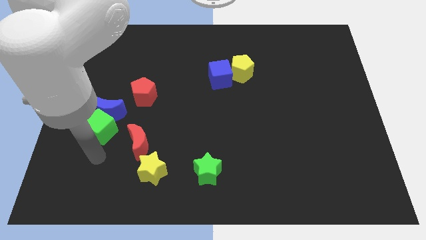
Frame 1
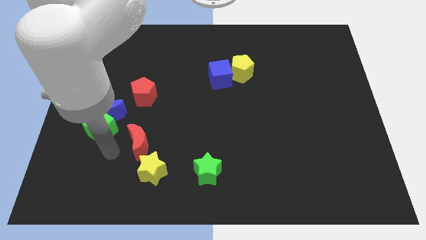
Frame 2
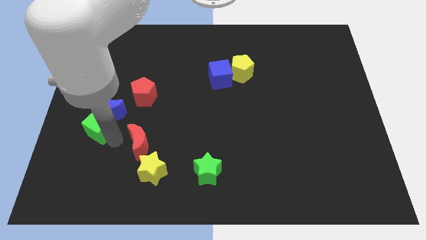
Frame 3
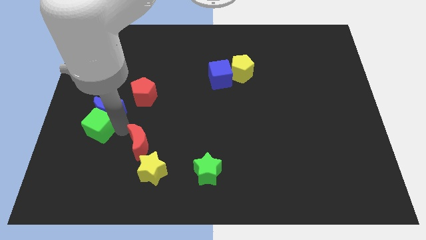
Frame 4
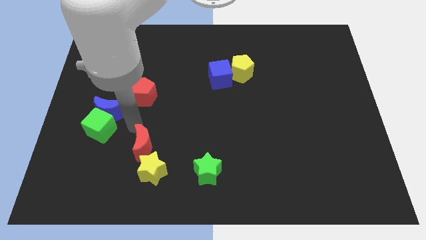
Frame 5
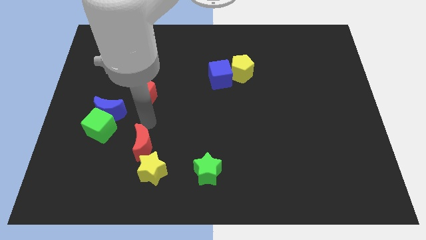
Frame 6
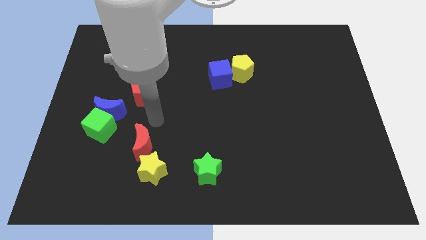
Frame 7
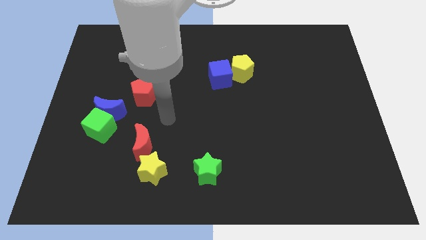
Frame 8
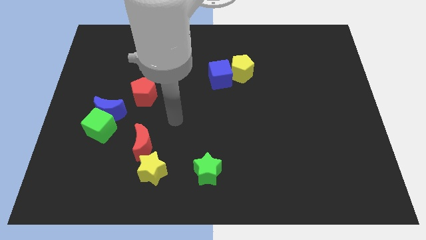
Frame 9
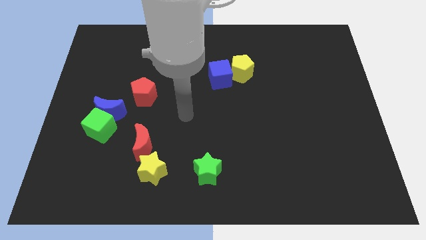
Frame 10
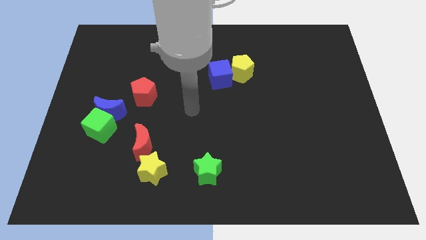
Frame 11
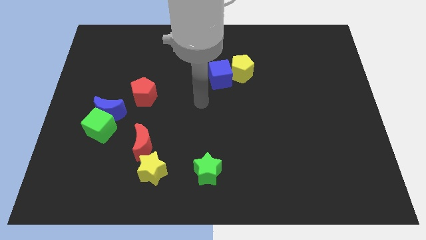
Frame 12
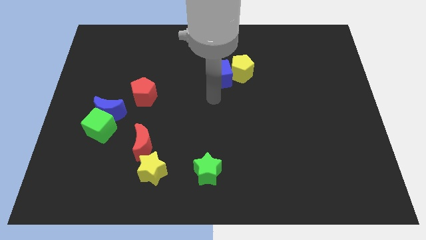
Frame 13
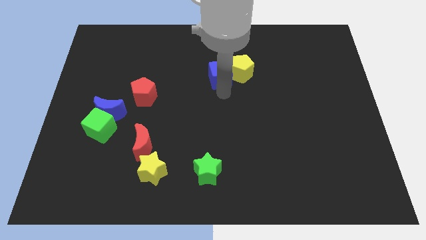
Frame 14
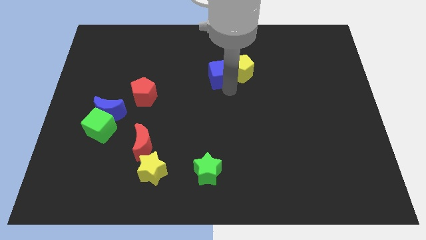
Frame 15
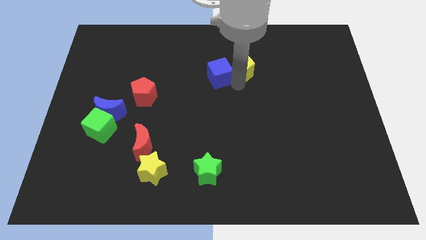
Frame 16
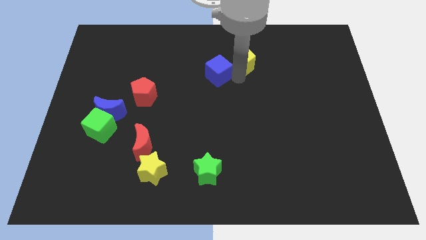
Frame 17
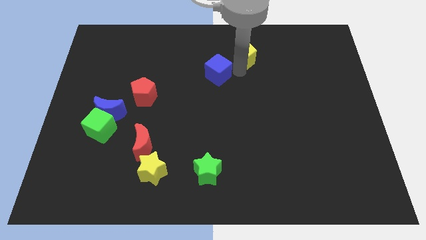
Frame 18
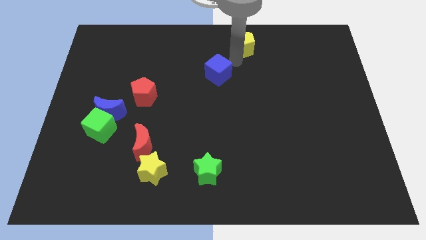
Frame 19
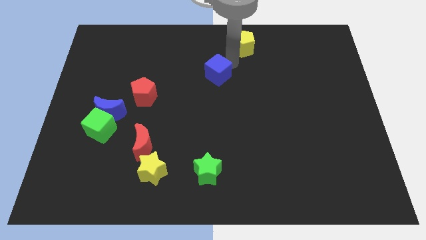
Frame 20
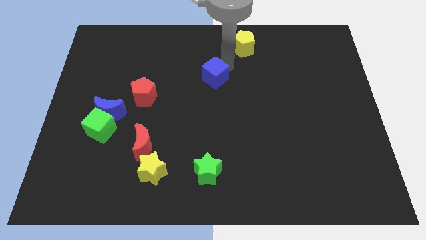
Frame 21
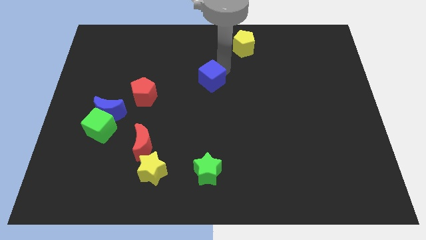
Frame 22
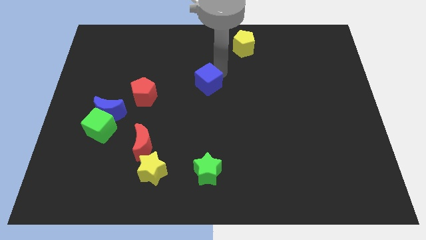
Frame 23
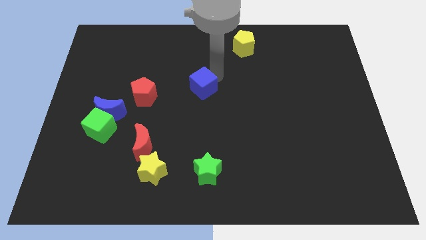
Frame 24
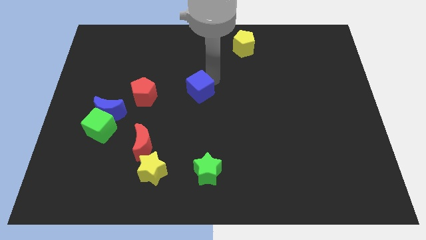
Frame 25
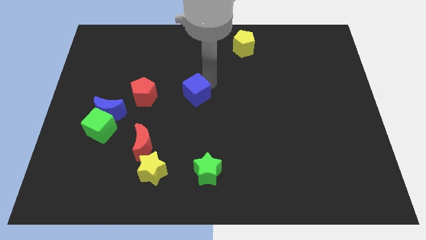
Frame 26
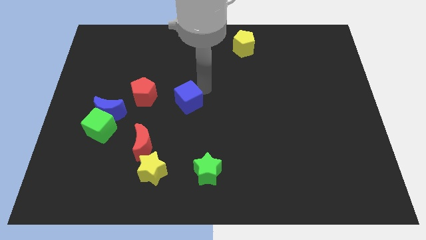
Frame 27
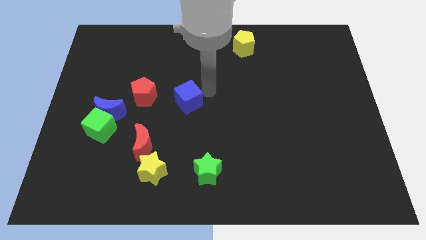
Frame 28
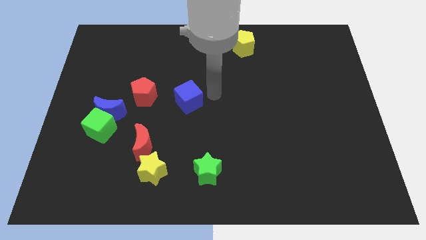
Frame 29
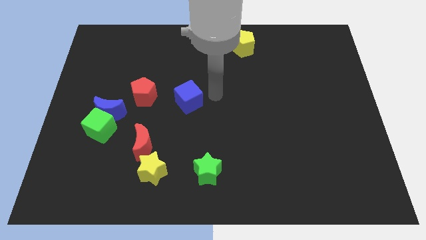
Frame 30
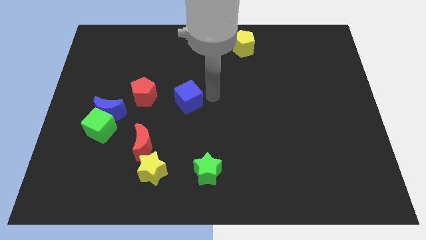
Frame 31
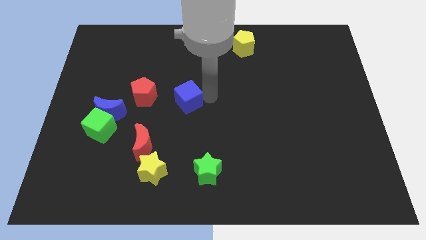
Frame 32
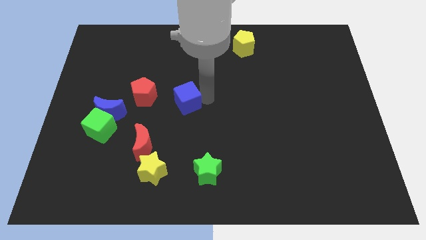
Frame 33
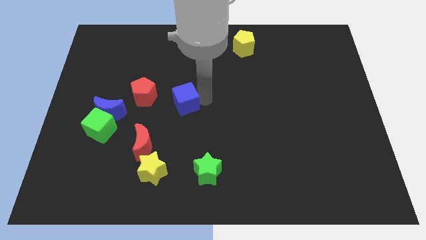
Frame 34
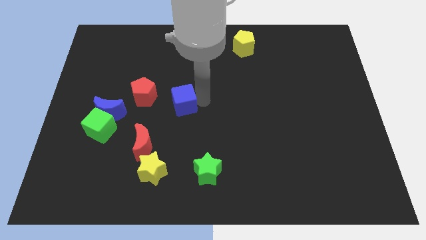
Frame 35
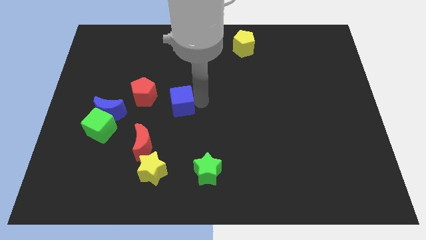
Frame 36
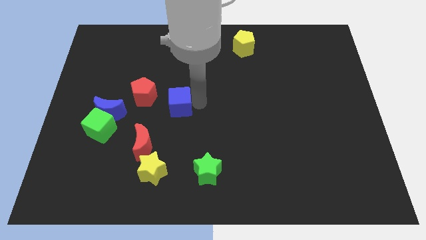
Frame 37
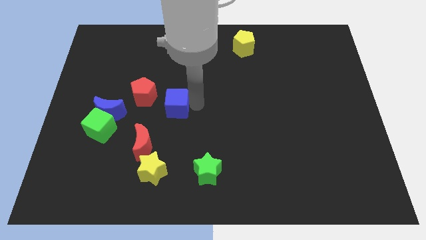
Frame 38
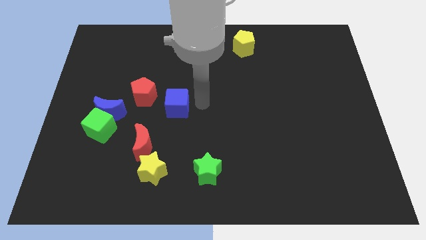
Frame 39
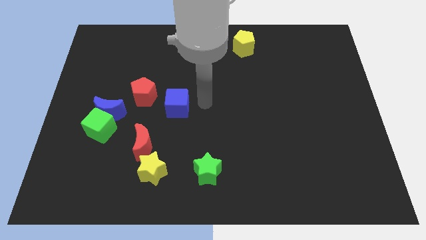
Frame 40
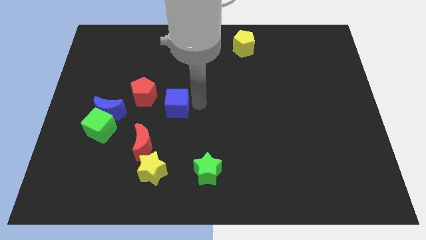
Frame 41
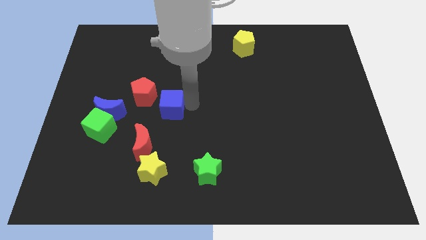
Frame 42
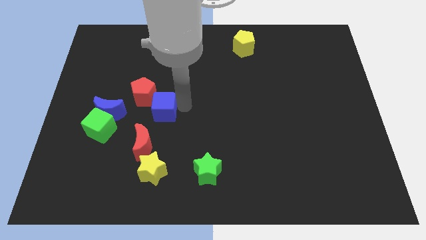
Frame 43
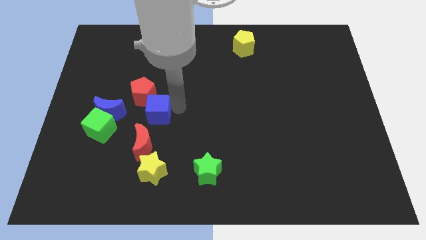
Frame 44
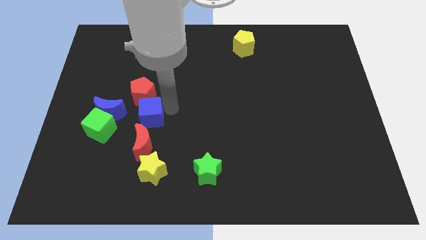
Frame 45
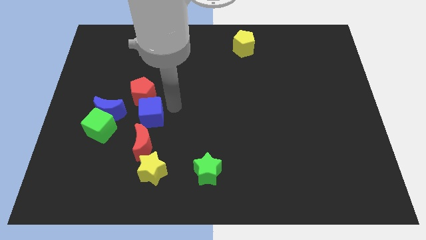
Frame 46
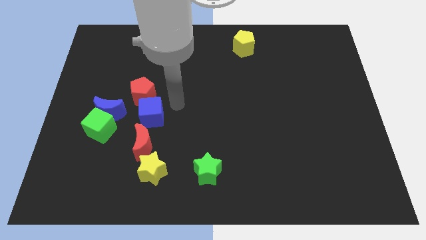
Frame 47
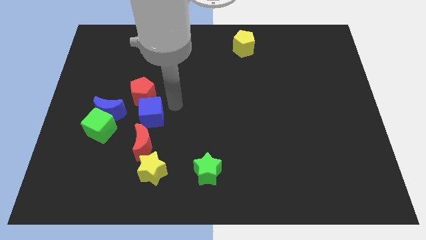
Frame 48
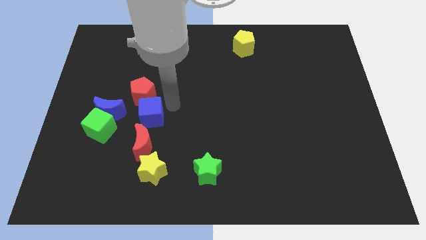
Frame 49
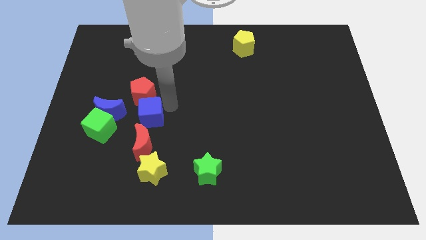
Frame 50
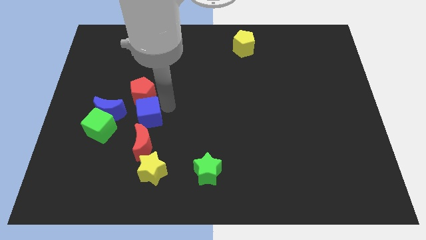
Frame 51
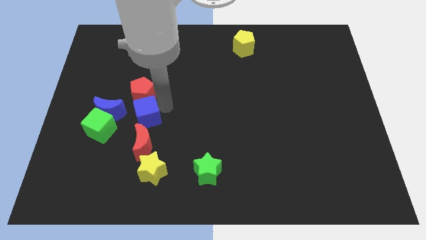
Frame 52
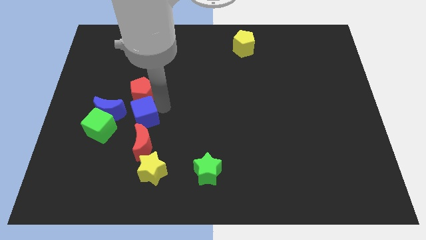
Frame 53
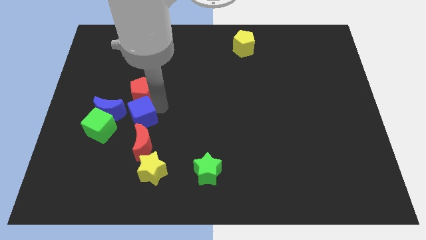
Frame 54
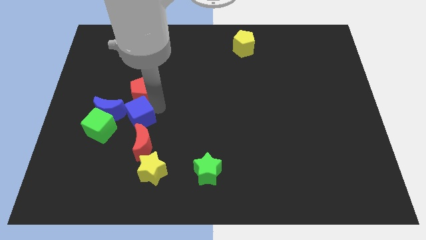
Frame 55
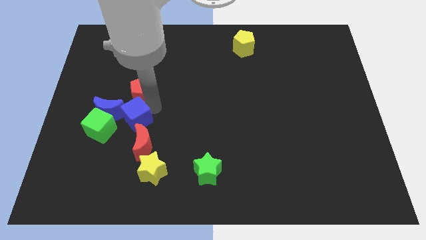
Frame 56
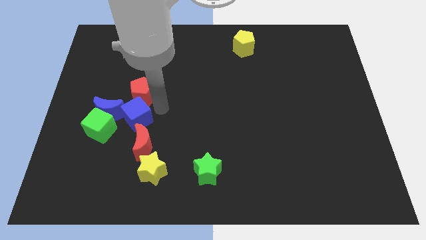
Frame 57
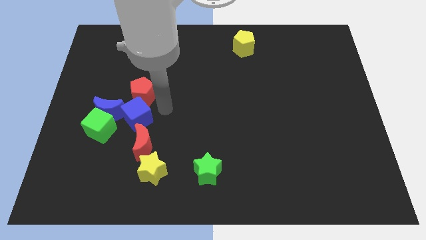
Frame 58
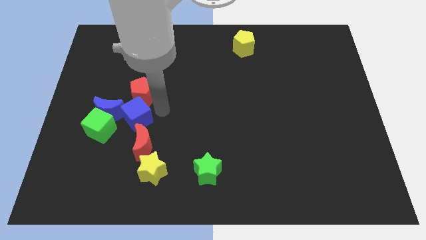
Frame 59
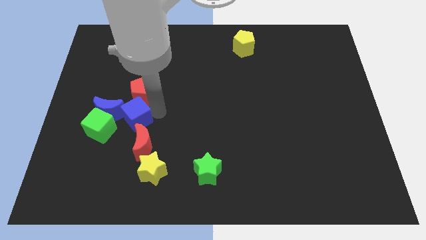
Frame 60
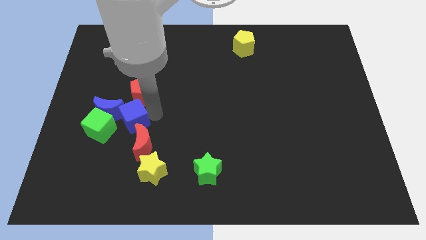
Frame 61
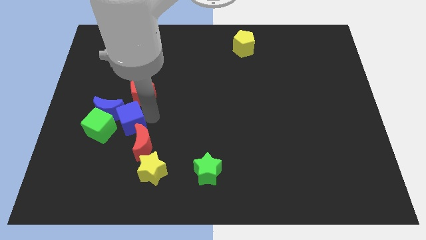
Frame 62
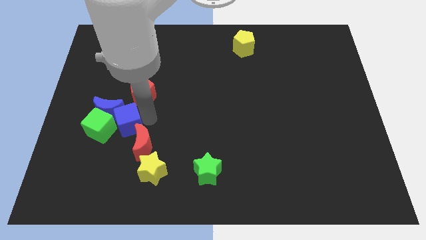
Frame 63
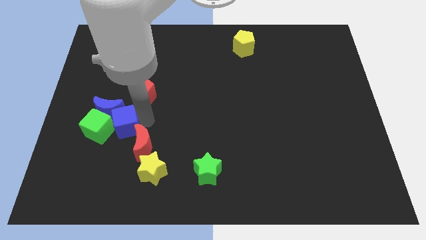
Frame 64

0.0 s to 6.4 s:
slide the blue cube towards the green cube
